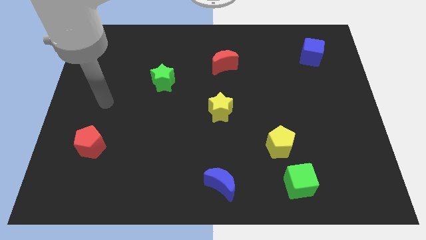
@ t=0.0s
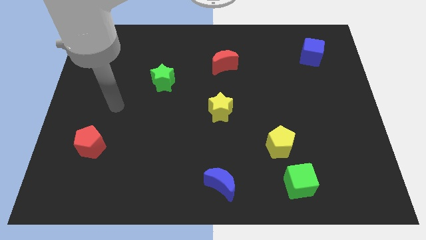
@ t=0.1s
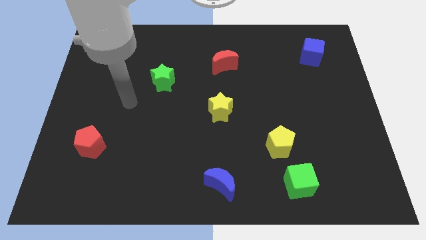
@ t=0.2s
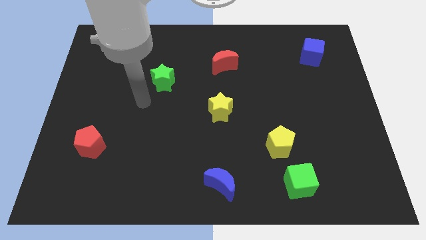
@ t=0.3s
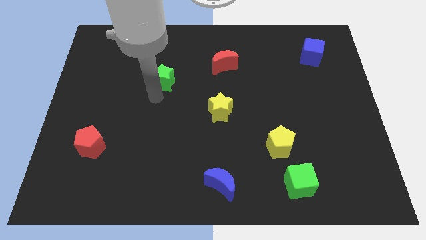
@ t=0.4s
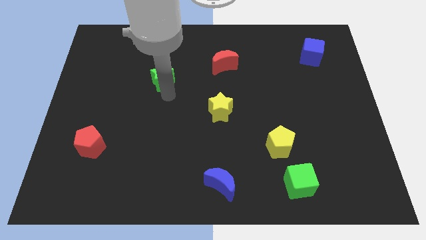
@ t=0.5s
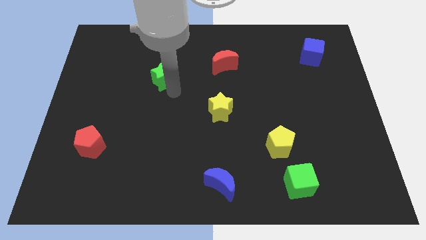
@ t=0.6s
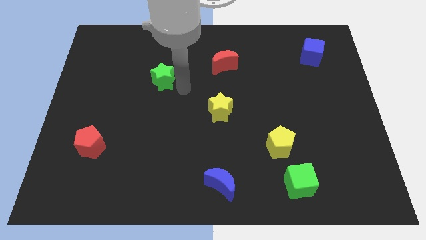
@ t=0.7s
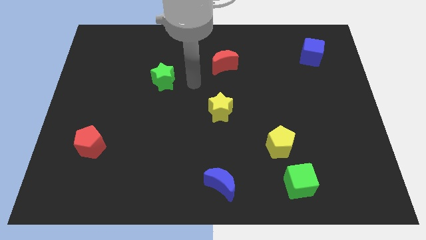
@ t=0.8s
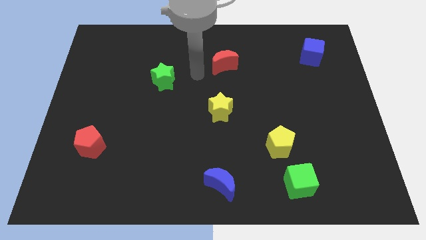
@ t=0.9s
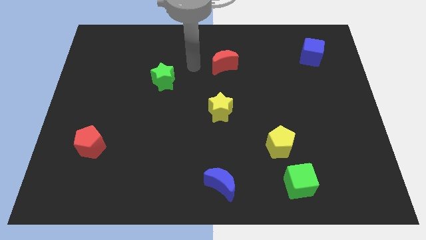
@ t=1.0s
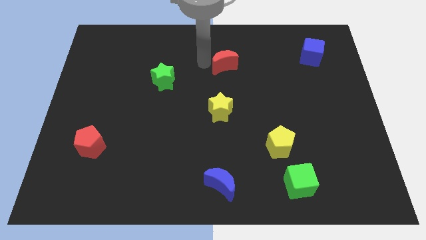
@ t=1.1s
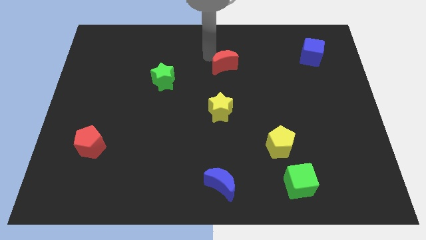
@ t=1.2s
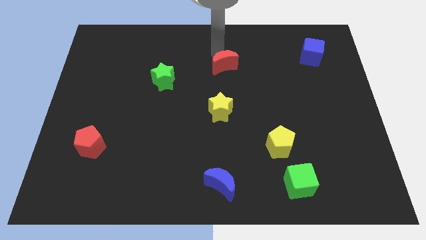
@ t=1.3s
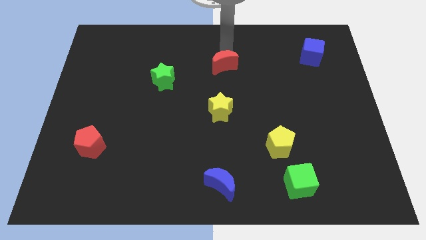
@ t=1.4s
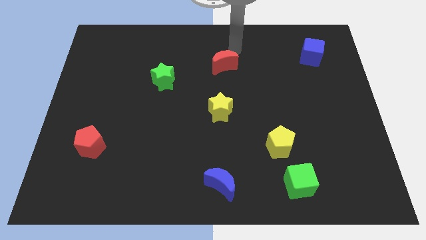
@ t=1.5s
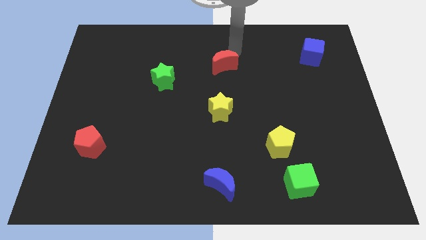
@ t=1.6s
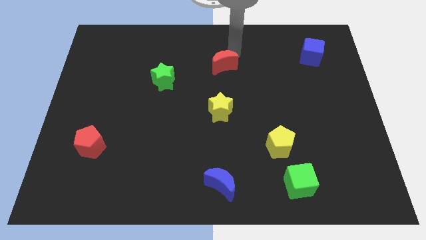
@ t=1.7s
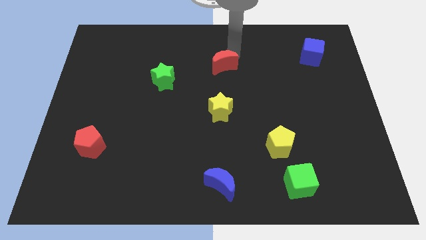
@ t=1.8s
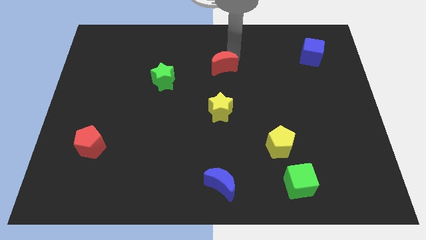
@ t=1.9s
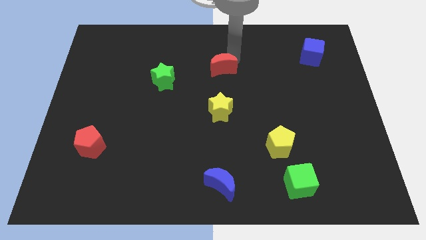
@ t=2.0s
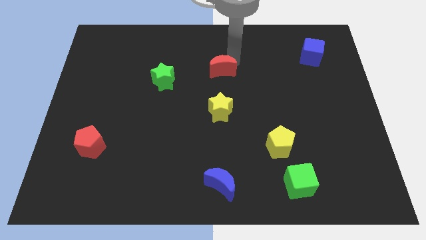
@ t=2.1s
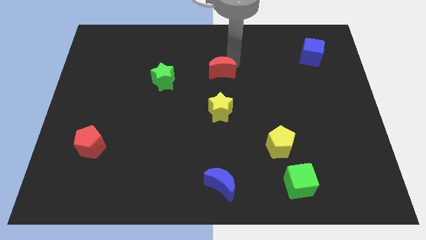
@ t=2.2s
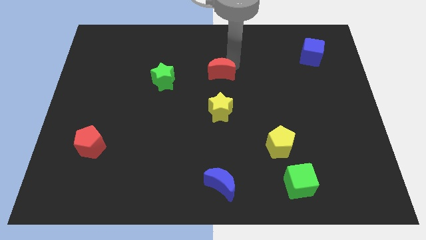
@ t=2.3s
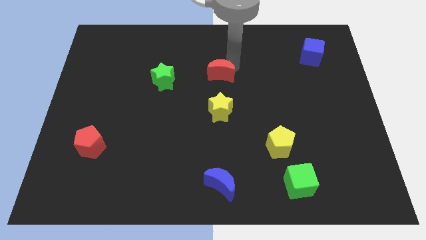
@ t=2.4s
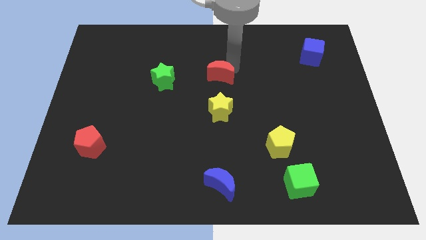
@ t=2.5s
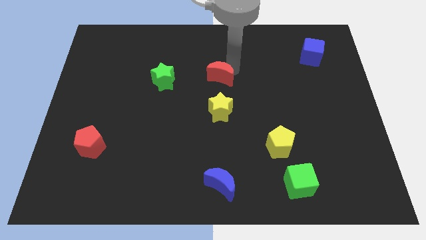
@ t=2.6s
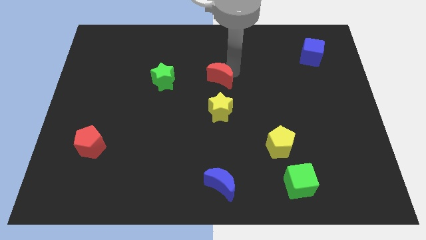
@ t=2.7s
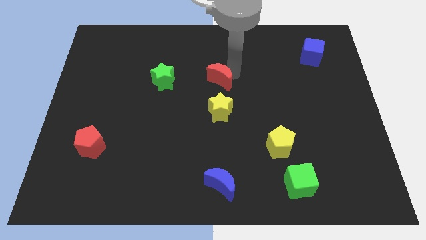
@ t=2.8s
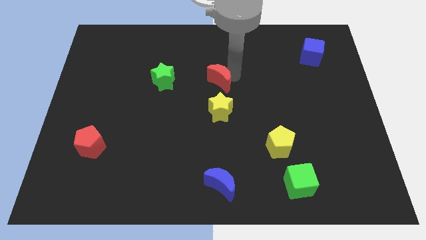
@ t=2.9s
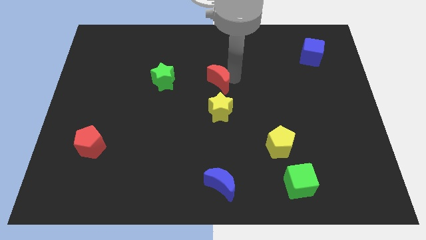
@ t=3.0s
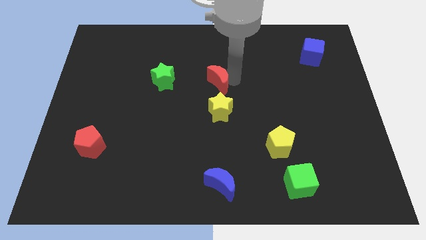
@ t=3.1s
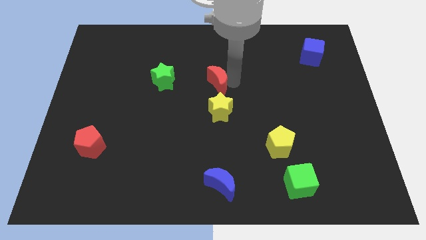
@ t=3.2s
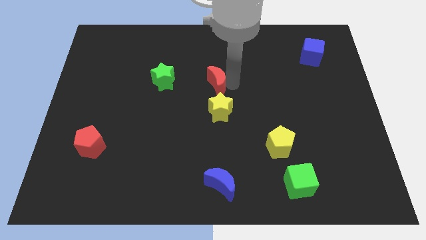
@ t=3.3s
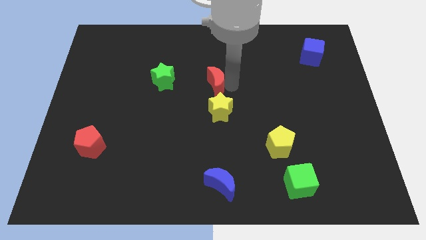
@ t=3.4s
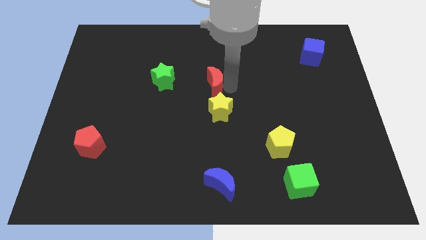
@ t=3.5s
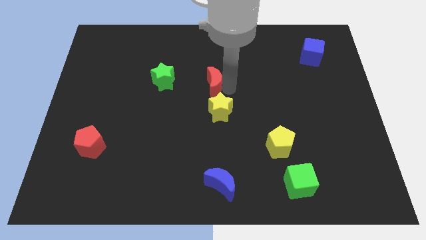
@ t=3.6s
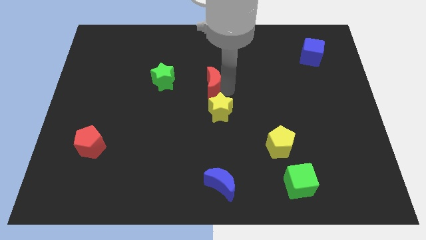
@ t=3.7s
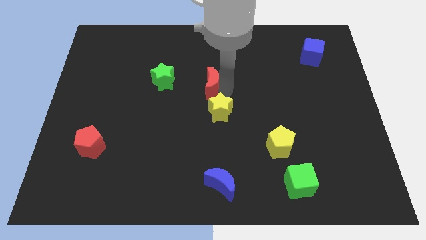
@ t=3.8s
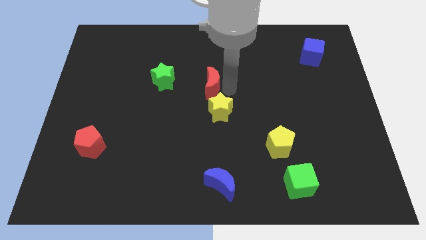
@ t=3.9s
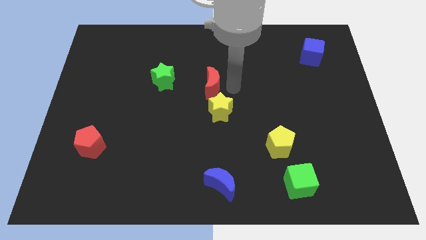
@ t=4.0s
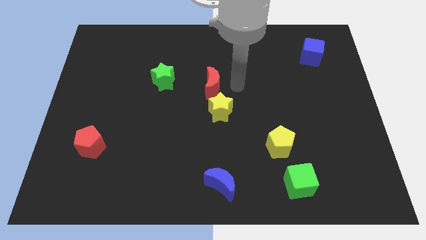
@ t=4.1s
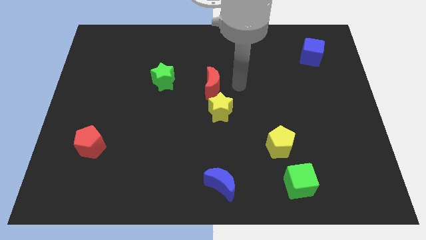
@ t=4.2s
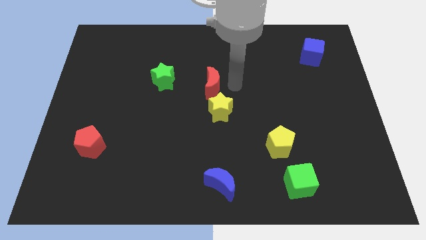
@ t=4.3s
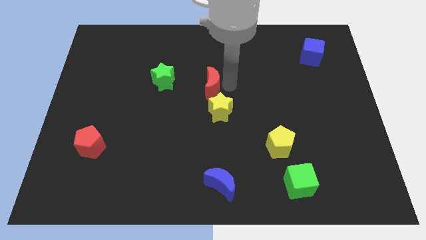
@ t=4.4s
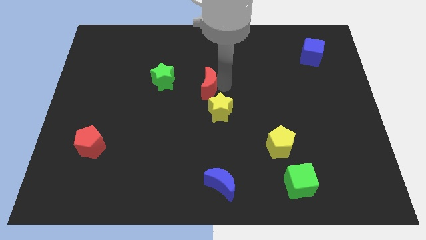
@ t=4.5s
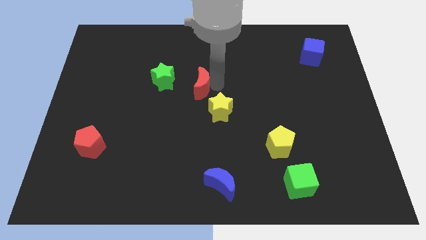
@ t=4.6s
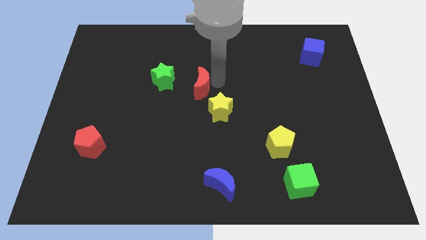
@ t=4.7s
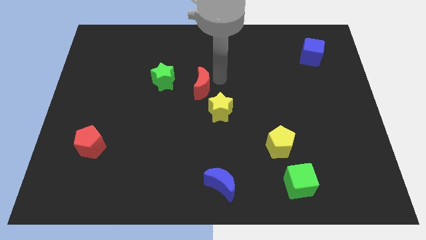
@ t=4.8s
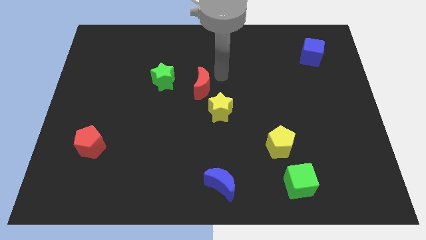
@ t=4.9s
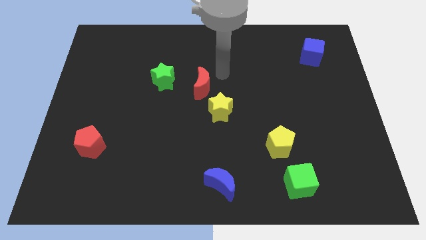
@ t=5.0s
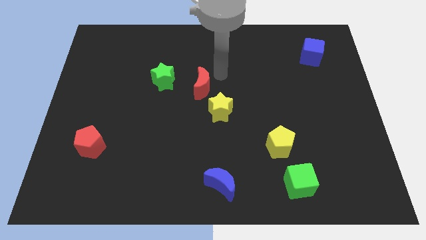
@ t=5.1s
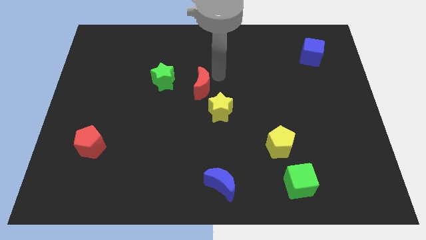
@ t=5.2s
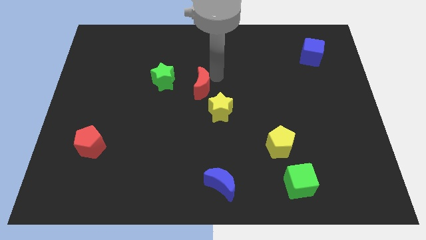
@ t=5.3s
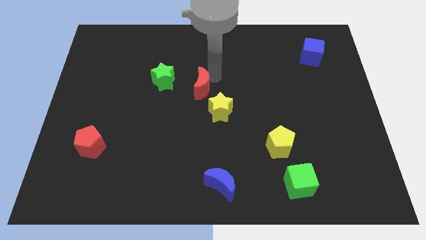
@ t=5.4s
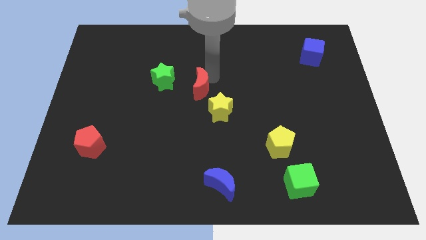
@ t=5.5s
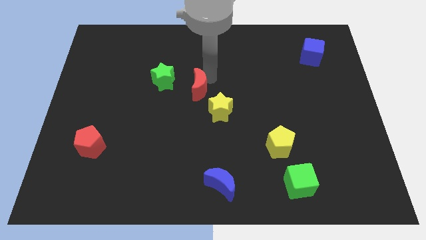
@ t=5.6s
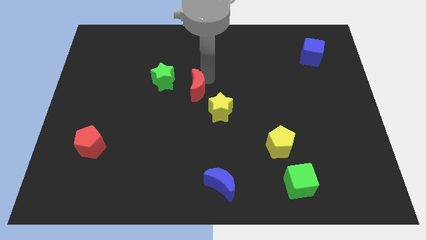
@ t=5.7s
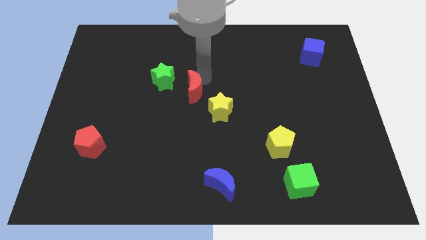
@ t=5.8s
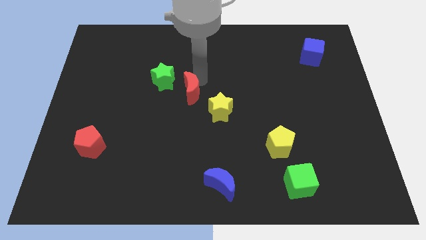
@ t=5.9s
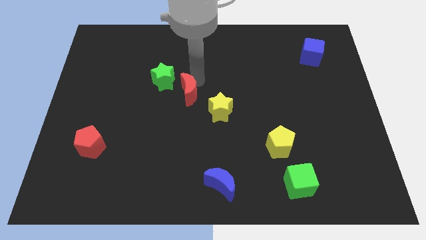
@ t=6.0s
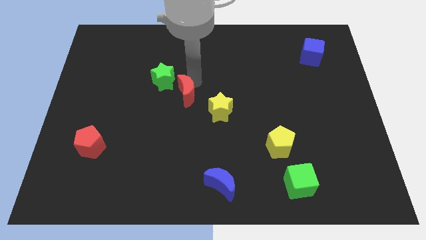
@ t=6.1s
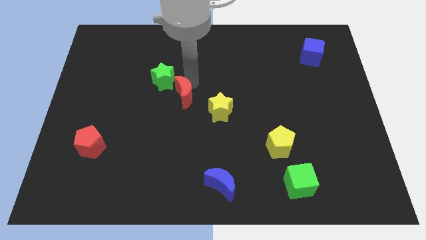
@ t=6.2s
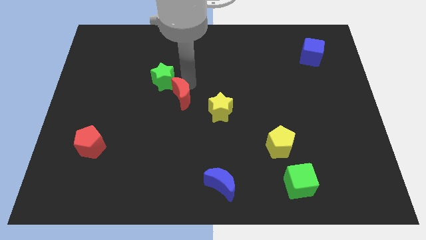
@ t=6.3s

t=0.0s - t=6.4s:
put the red moon to the left of the yellow star
